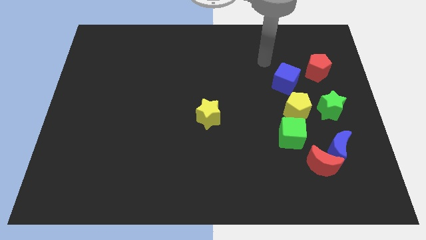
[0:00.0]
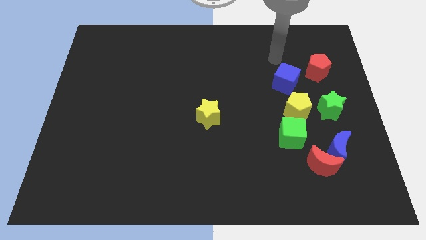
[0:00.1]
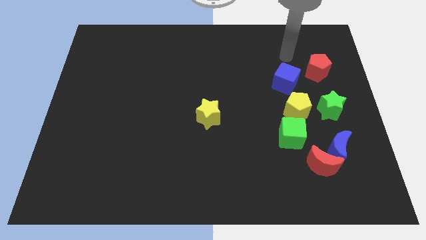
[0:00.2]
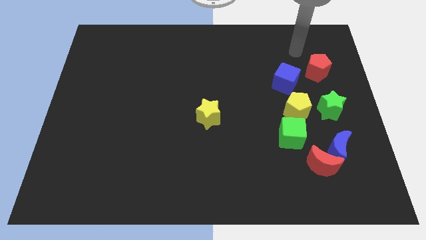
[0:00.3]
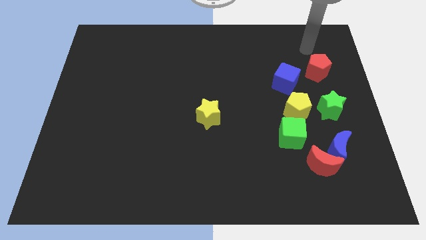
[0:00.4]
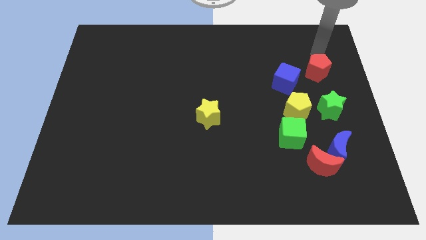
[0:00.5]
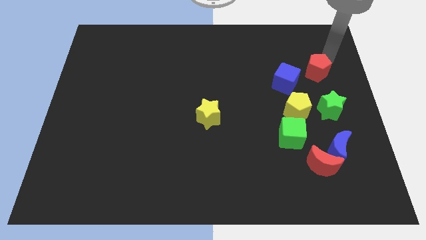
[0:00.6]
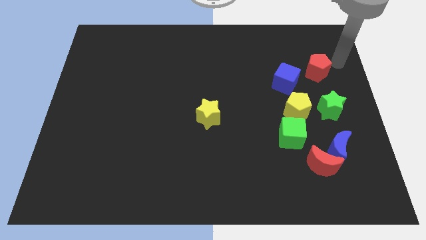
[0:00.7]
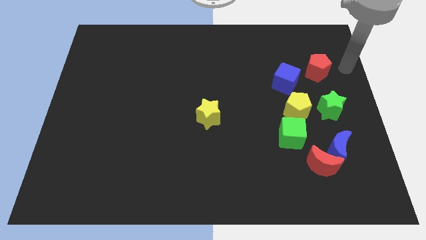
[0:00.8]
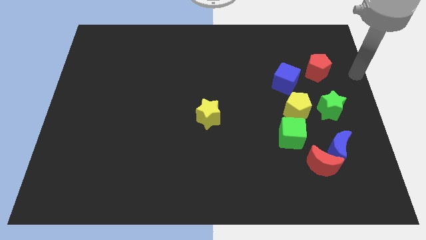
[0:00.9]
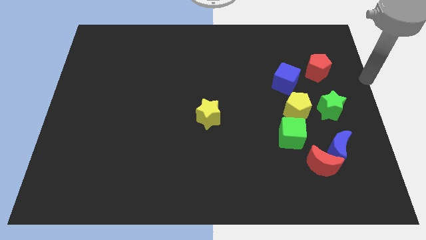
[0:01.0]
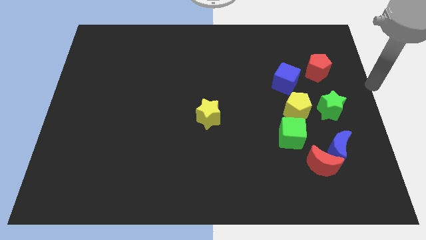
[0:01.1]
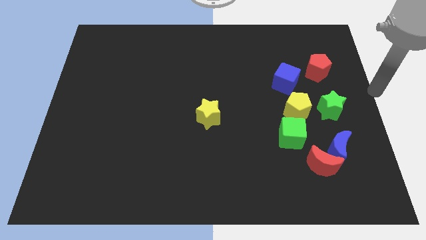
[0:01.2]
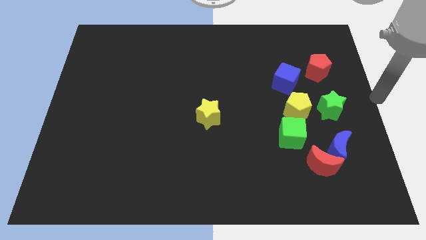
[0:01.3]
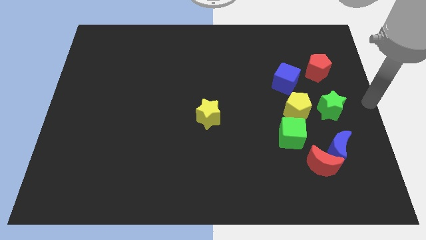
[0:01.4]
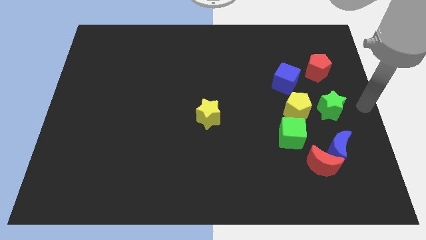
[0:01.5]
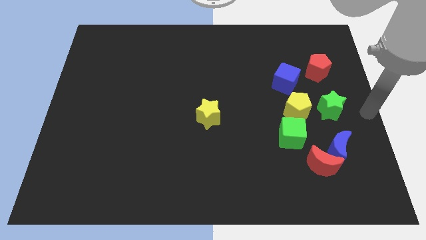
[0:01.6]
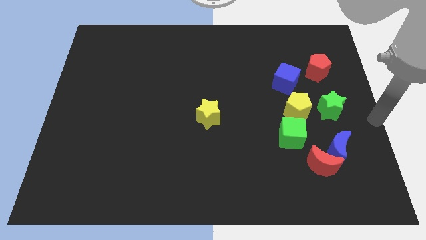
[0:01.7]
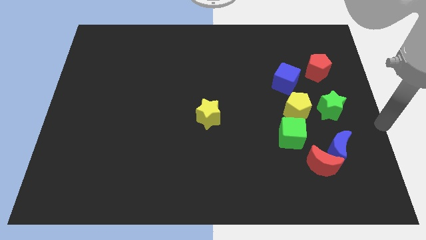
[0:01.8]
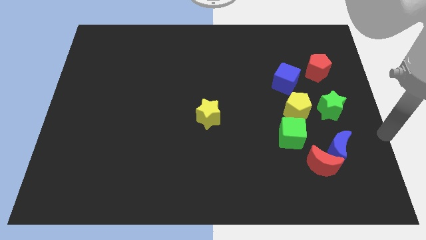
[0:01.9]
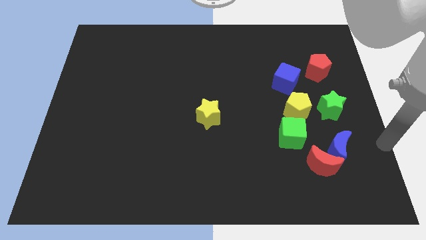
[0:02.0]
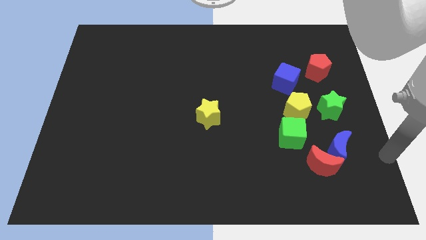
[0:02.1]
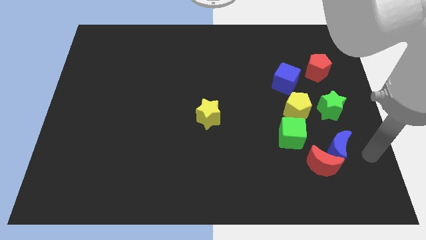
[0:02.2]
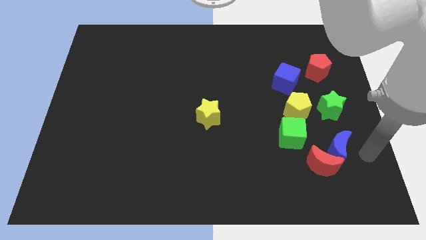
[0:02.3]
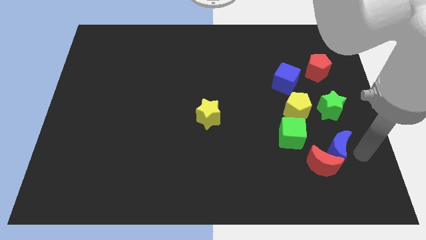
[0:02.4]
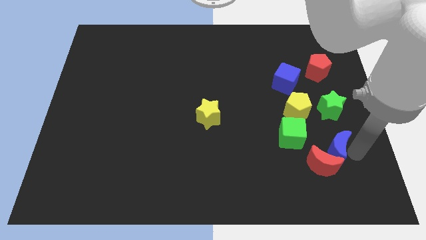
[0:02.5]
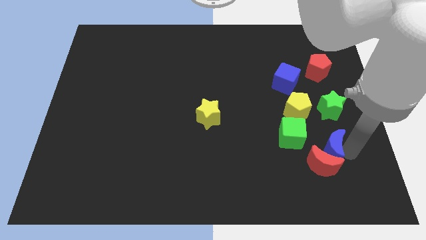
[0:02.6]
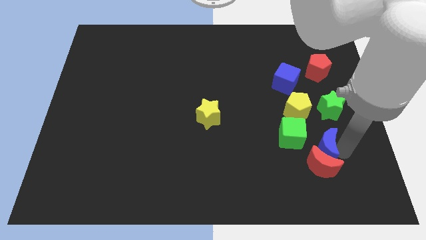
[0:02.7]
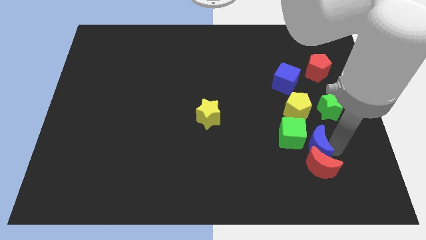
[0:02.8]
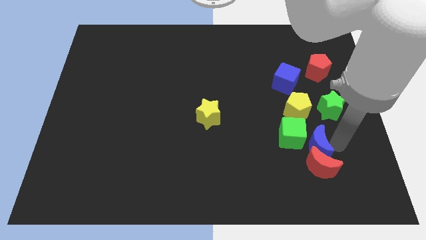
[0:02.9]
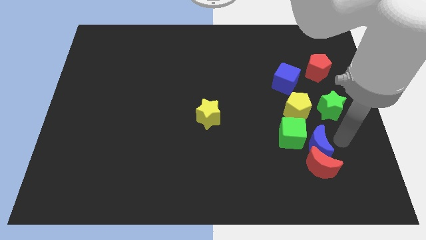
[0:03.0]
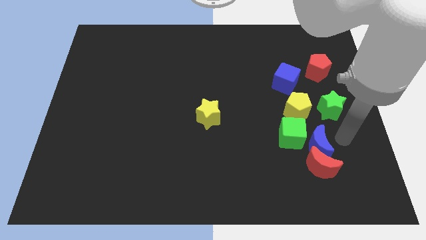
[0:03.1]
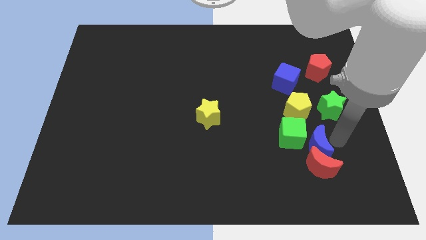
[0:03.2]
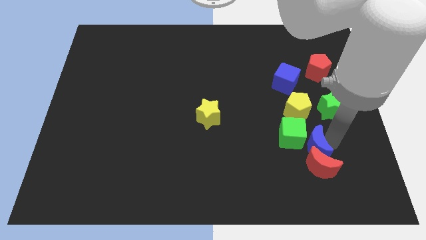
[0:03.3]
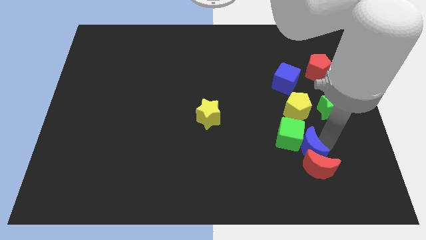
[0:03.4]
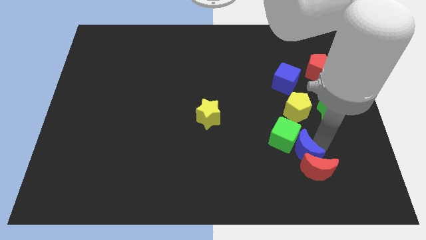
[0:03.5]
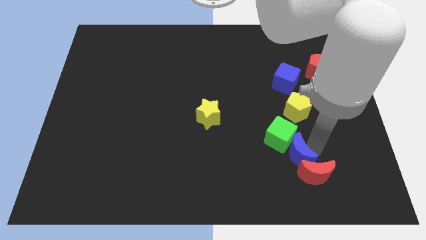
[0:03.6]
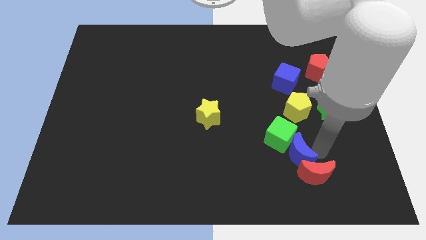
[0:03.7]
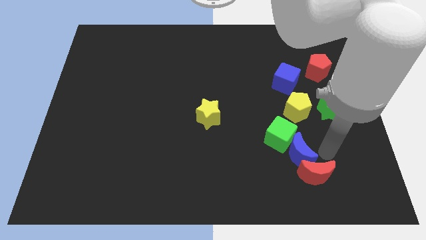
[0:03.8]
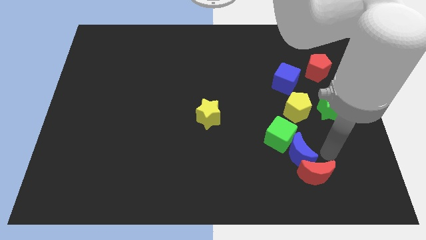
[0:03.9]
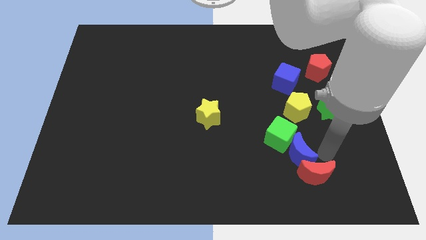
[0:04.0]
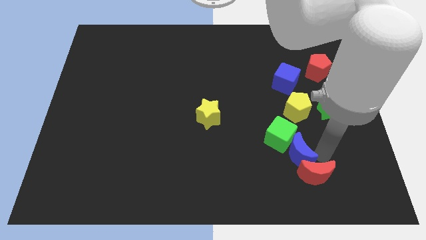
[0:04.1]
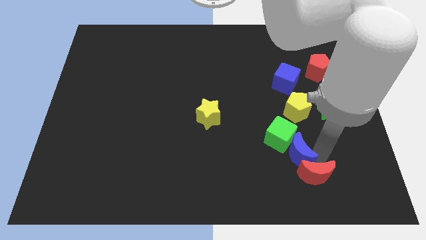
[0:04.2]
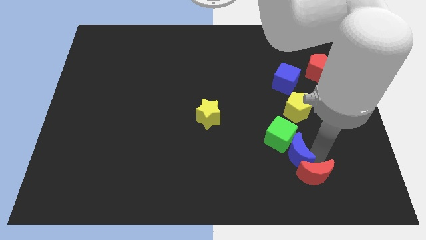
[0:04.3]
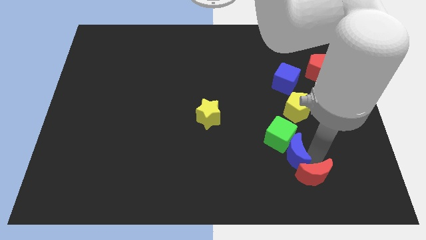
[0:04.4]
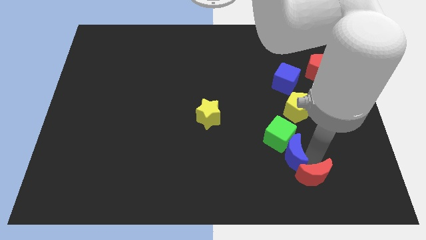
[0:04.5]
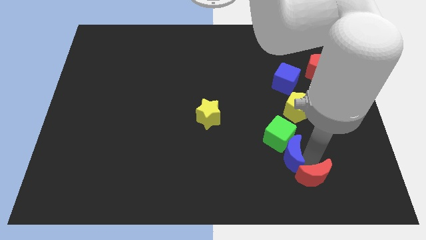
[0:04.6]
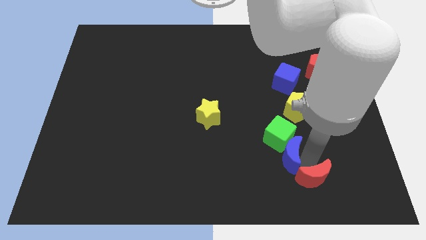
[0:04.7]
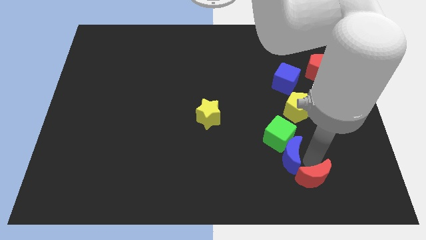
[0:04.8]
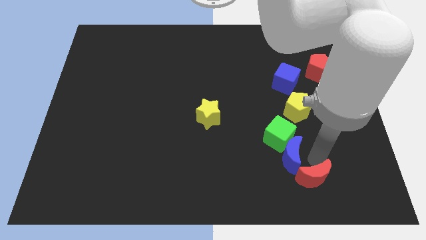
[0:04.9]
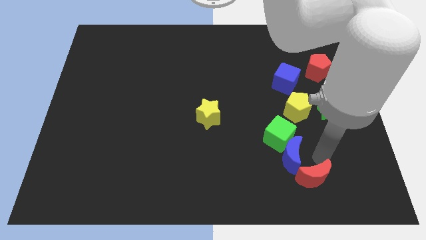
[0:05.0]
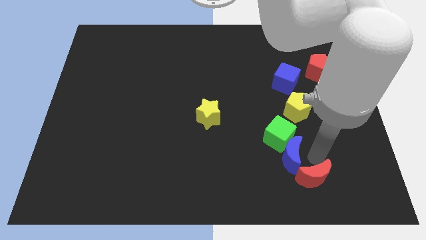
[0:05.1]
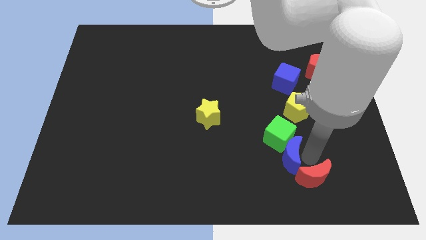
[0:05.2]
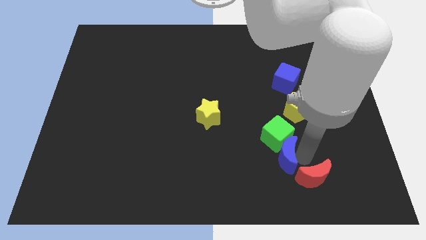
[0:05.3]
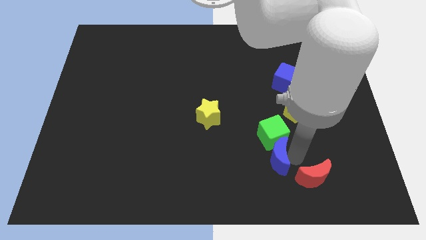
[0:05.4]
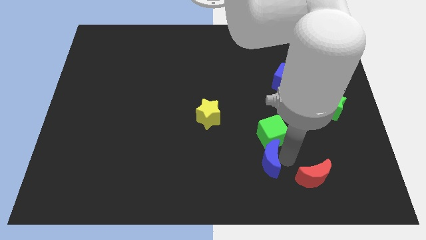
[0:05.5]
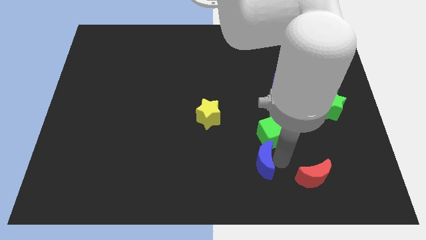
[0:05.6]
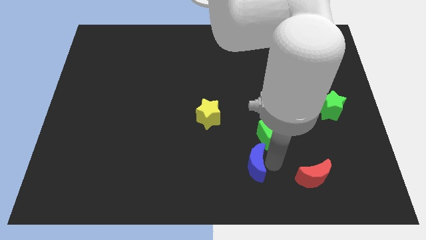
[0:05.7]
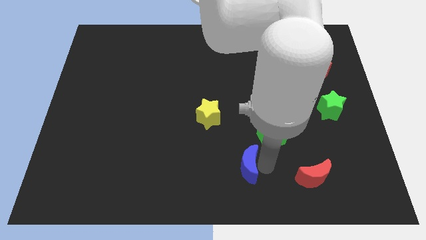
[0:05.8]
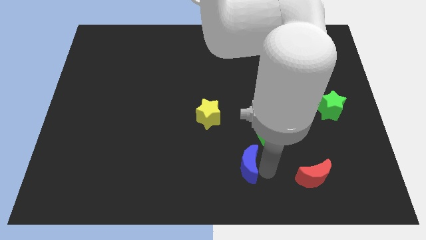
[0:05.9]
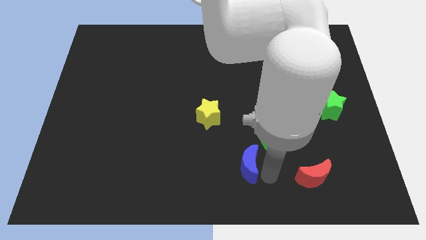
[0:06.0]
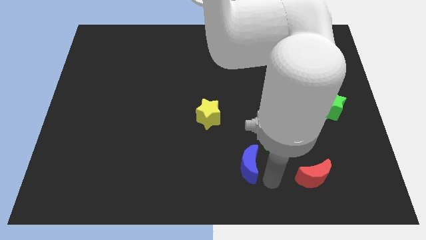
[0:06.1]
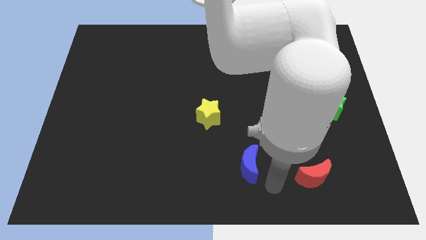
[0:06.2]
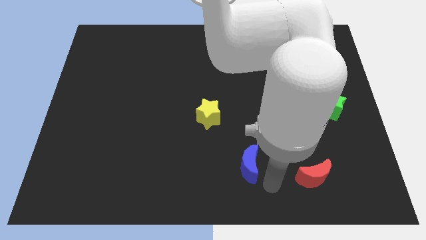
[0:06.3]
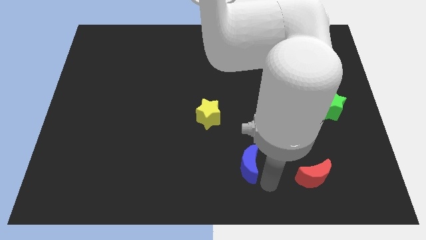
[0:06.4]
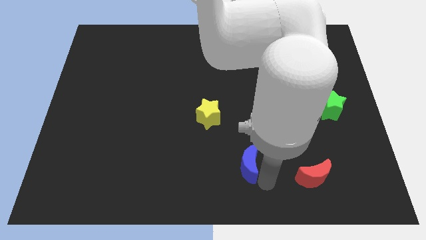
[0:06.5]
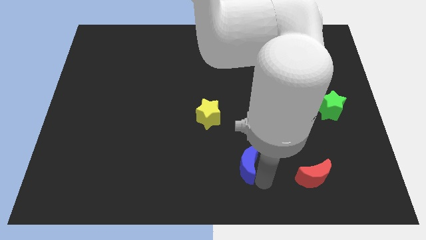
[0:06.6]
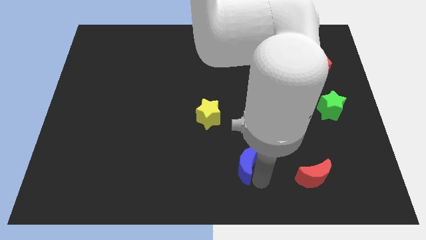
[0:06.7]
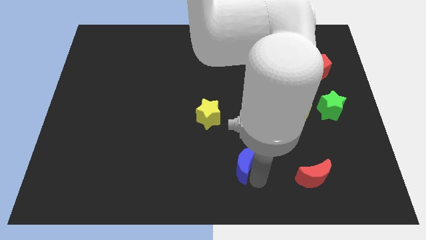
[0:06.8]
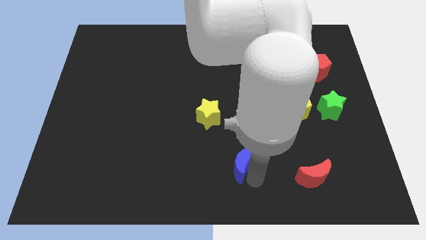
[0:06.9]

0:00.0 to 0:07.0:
move the blue moon left

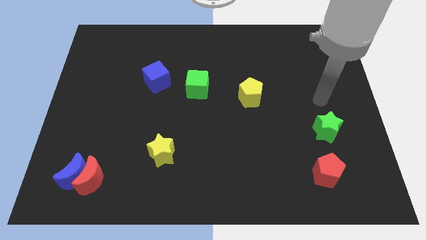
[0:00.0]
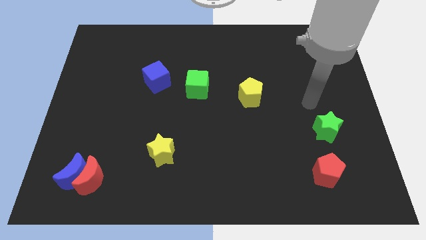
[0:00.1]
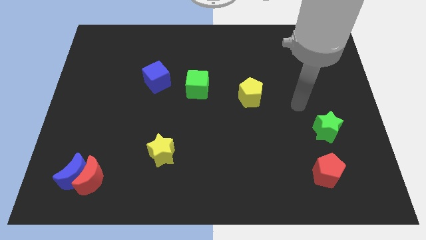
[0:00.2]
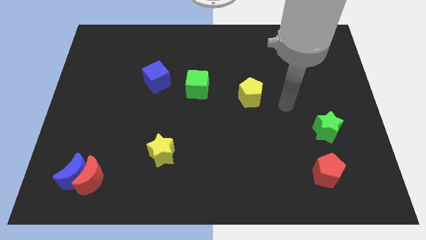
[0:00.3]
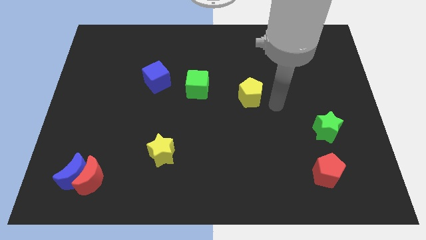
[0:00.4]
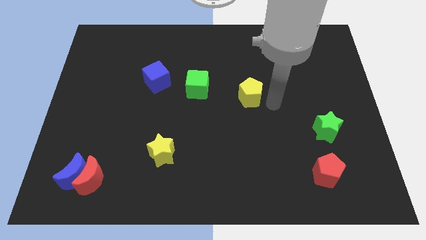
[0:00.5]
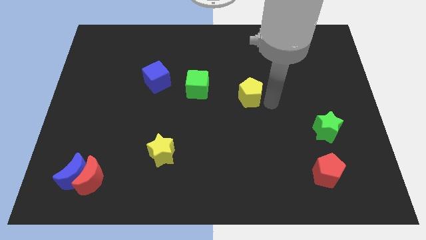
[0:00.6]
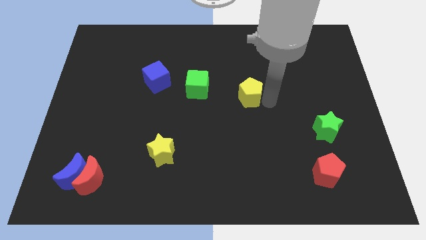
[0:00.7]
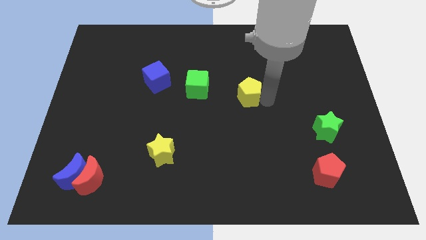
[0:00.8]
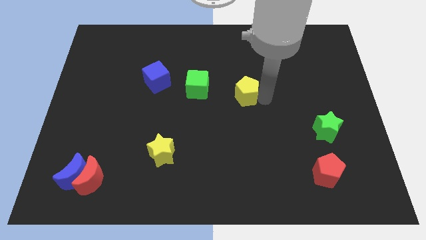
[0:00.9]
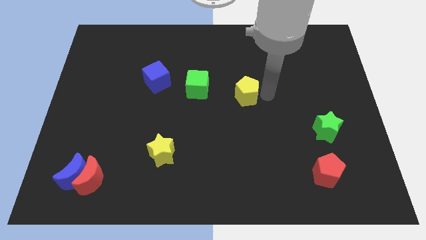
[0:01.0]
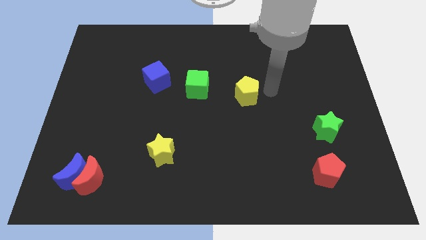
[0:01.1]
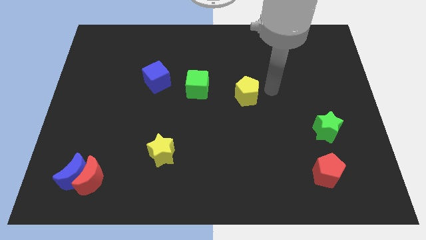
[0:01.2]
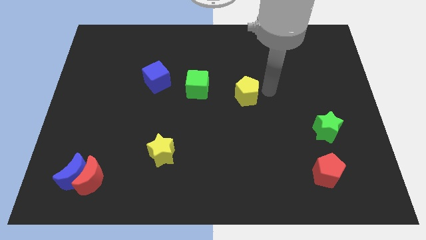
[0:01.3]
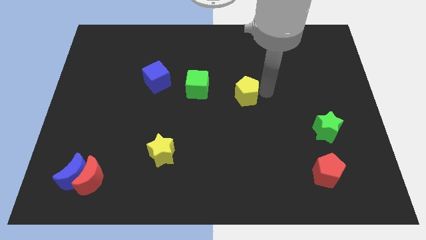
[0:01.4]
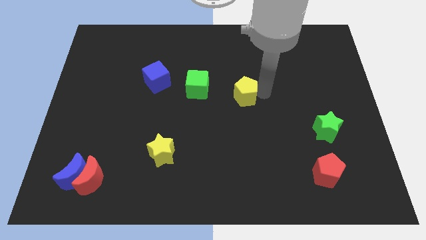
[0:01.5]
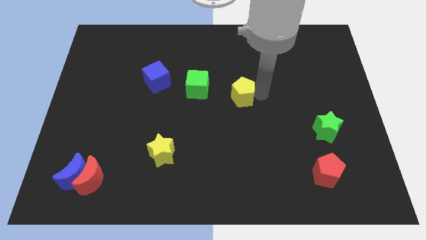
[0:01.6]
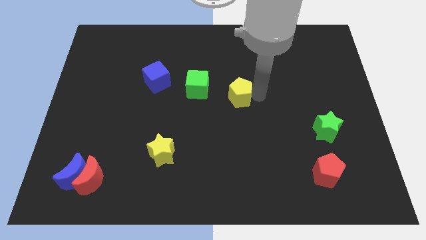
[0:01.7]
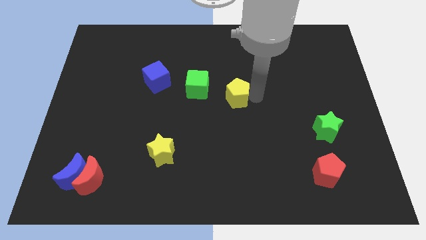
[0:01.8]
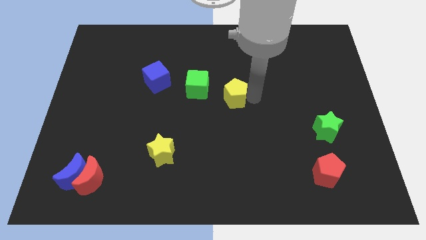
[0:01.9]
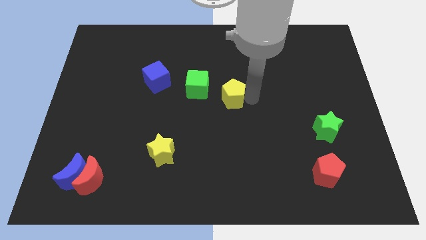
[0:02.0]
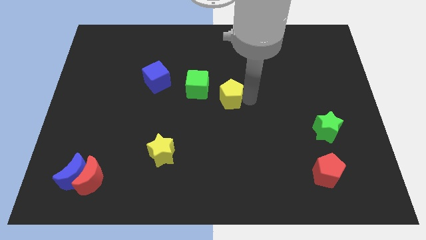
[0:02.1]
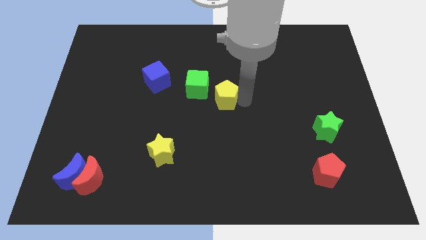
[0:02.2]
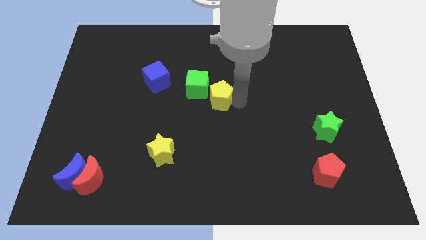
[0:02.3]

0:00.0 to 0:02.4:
push the yellow pentagon to the left a bit
